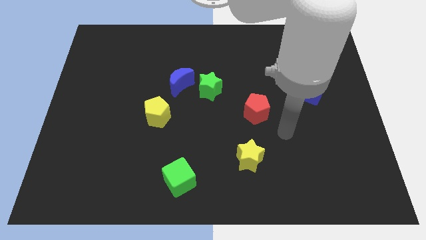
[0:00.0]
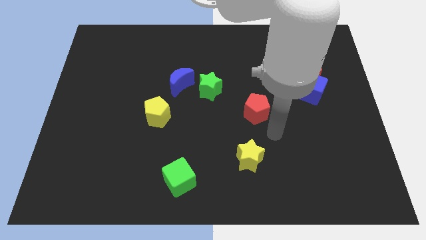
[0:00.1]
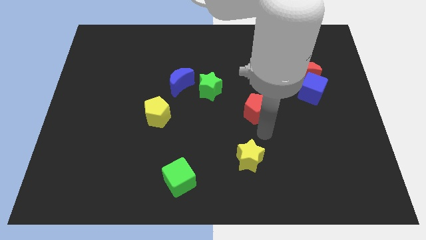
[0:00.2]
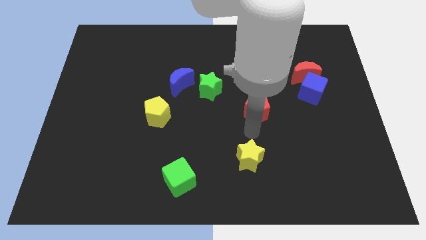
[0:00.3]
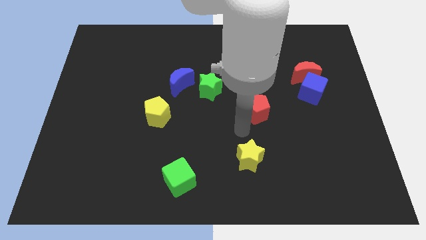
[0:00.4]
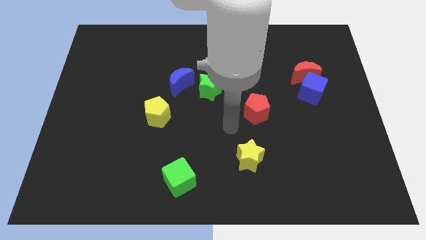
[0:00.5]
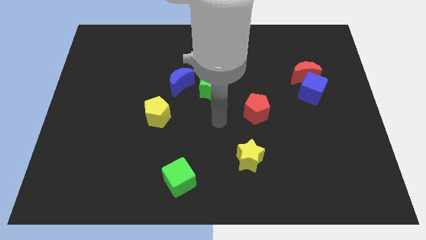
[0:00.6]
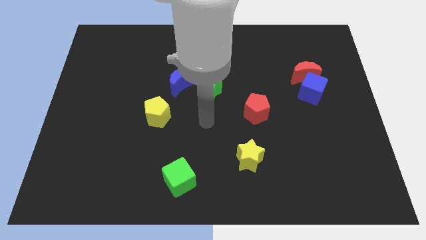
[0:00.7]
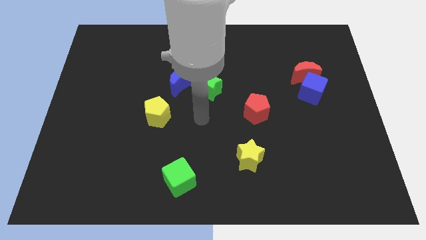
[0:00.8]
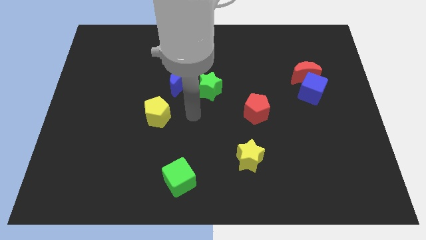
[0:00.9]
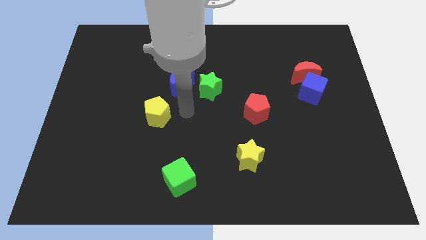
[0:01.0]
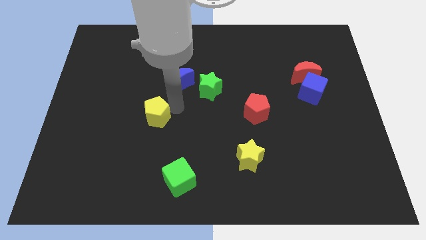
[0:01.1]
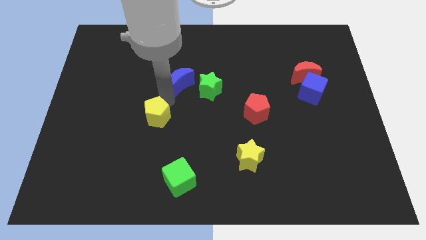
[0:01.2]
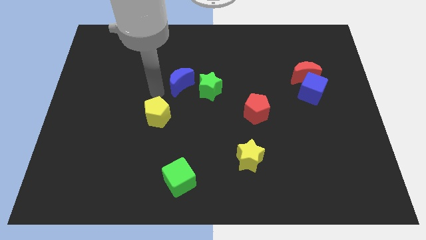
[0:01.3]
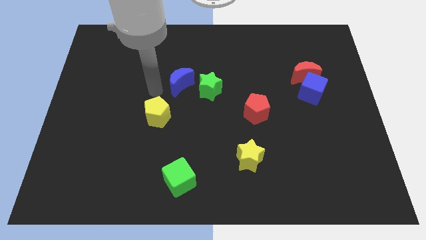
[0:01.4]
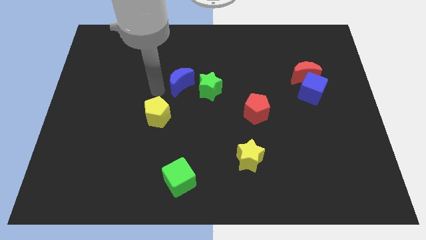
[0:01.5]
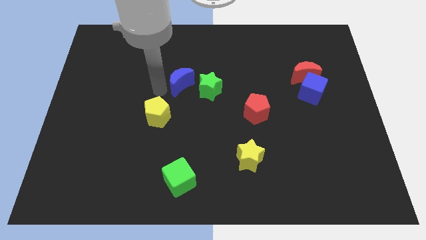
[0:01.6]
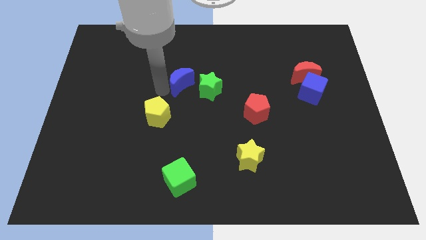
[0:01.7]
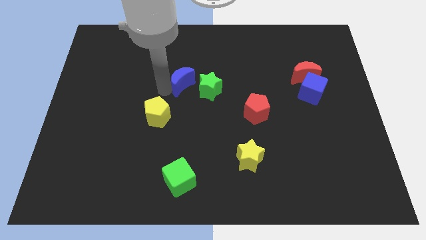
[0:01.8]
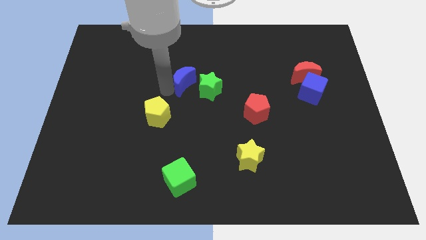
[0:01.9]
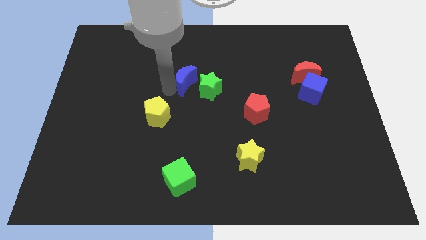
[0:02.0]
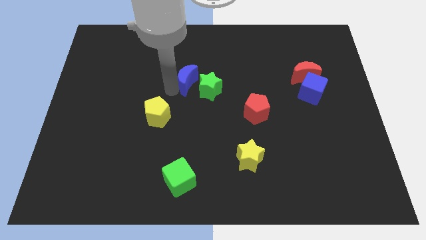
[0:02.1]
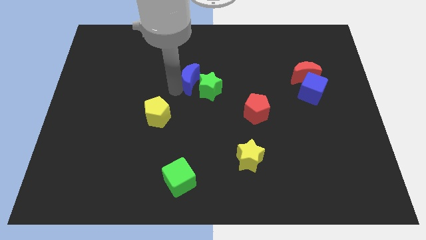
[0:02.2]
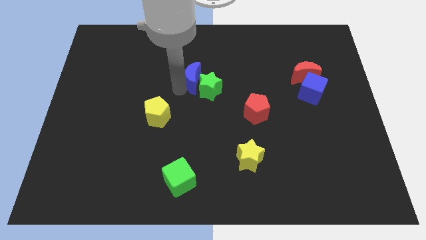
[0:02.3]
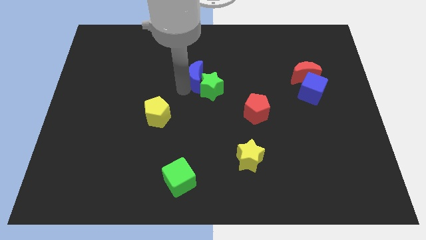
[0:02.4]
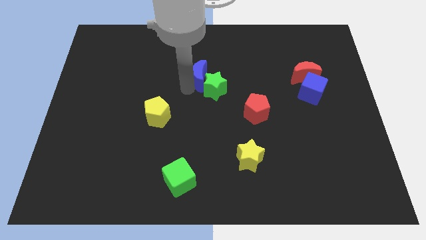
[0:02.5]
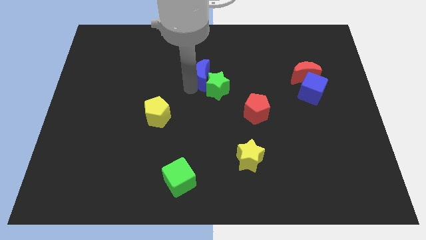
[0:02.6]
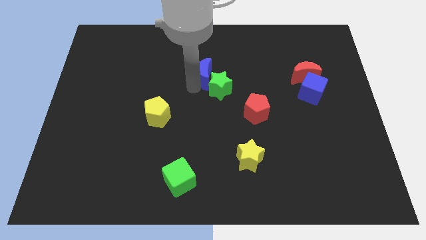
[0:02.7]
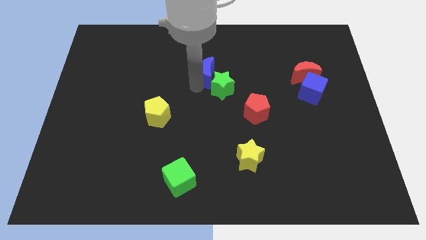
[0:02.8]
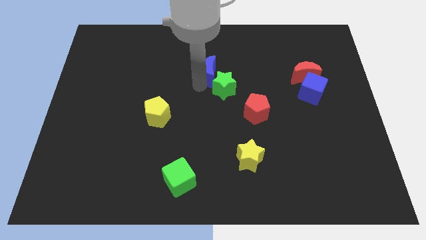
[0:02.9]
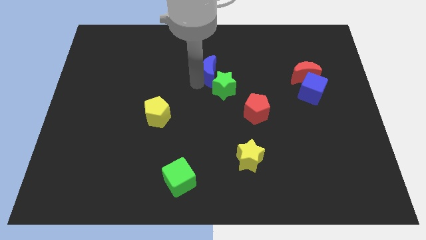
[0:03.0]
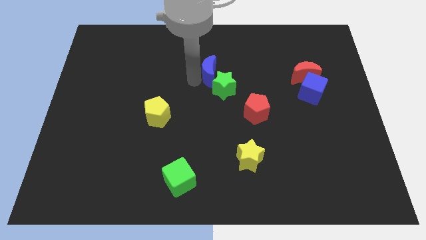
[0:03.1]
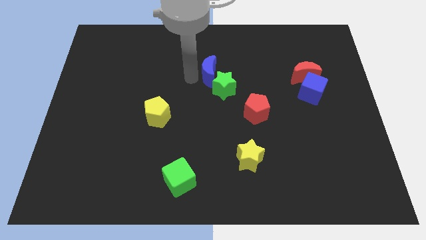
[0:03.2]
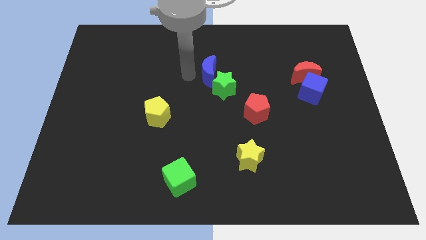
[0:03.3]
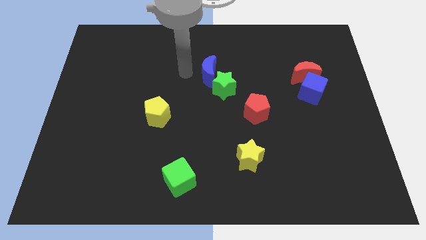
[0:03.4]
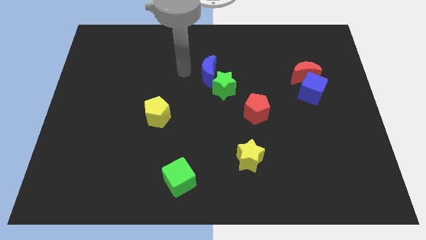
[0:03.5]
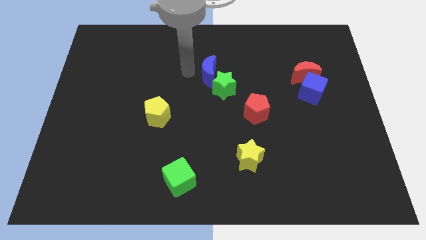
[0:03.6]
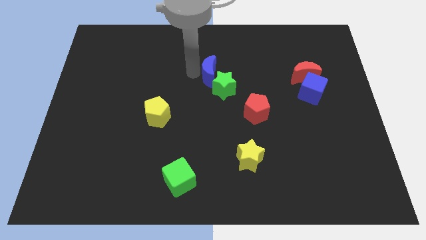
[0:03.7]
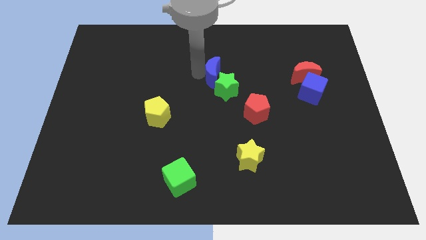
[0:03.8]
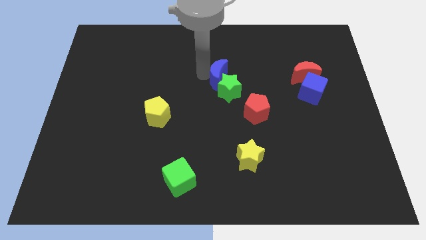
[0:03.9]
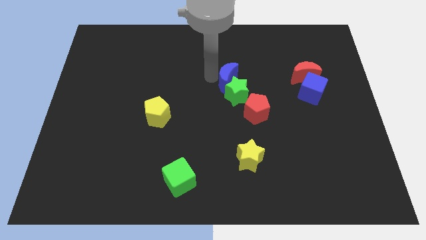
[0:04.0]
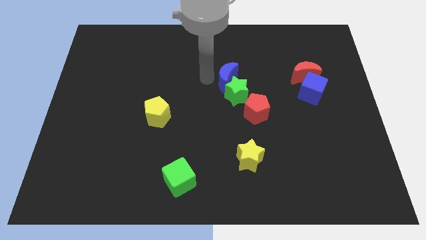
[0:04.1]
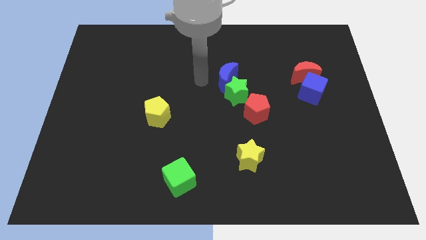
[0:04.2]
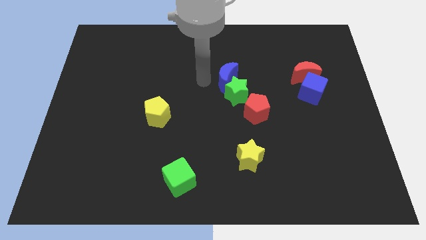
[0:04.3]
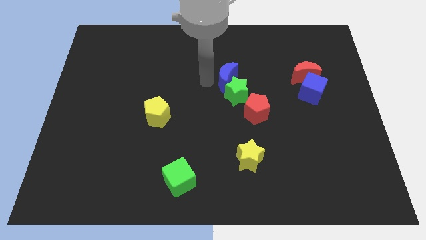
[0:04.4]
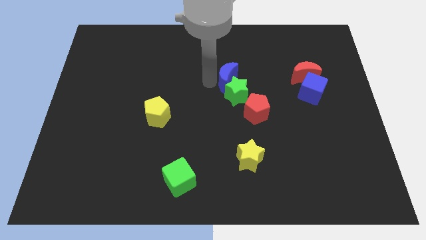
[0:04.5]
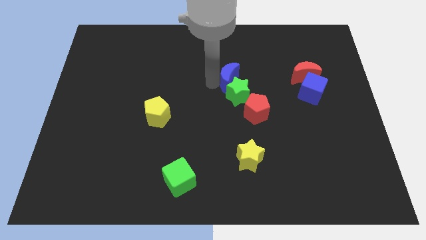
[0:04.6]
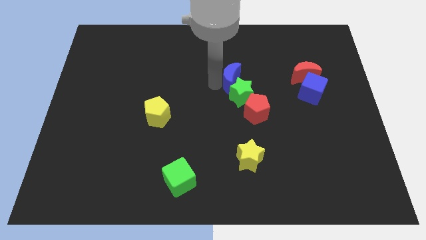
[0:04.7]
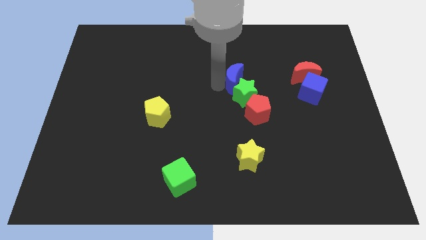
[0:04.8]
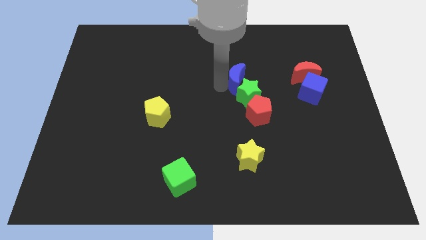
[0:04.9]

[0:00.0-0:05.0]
put the blue moon above the red pentagon

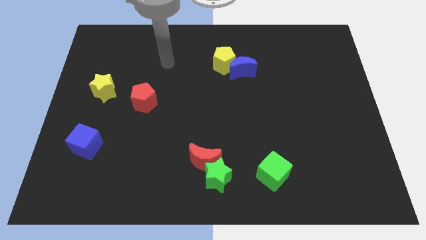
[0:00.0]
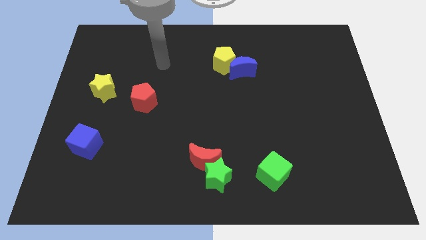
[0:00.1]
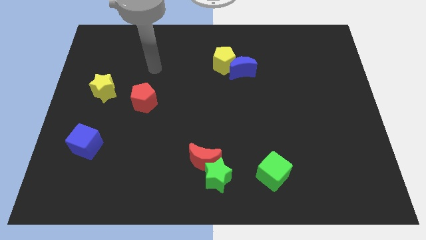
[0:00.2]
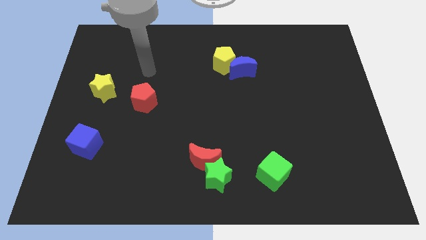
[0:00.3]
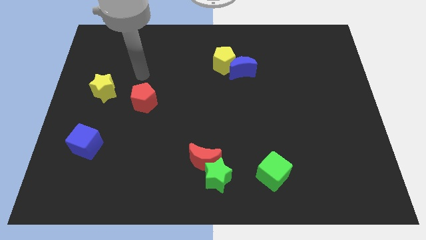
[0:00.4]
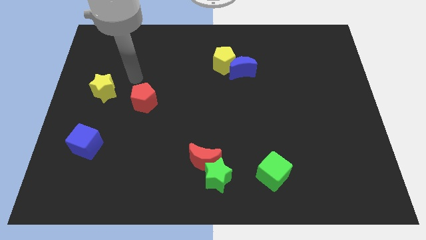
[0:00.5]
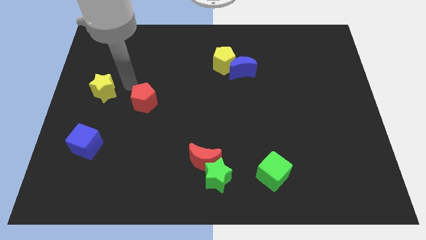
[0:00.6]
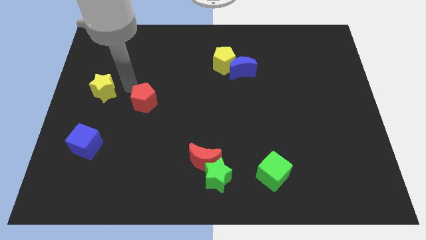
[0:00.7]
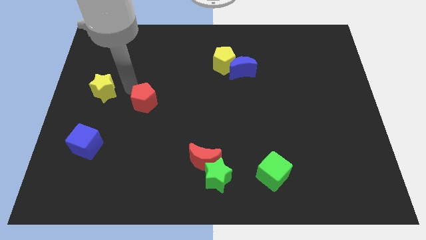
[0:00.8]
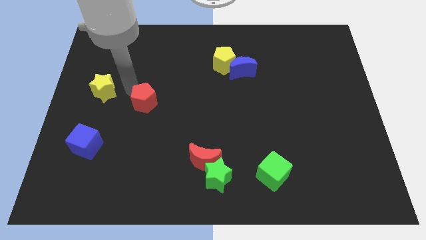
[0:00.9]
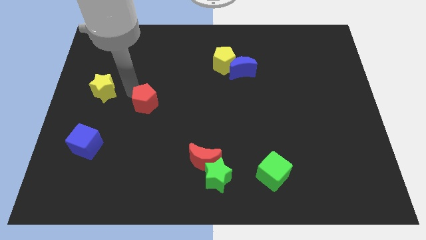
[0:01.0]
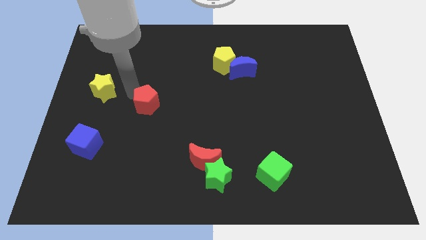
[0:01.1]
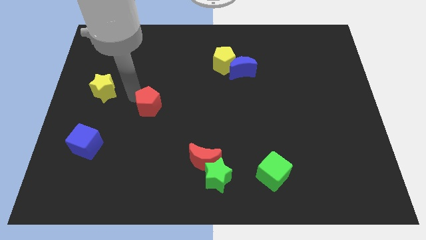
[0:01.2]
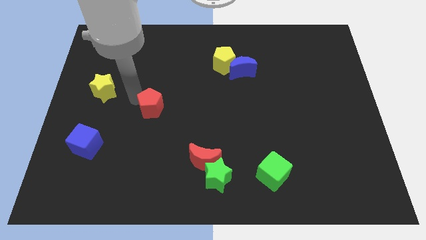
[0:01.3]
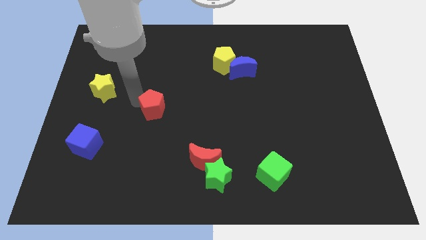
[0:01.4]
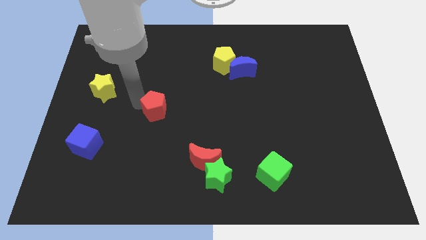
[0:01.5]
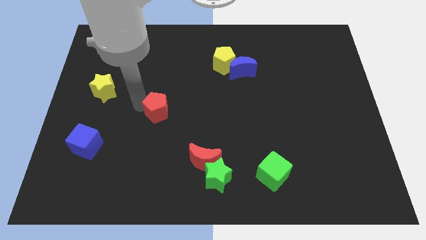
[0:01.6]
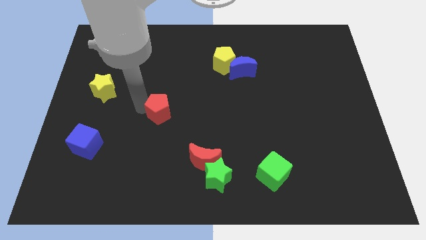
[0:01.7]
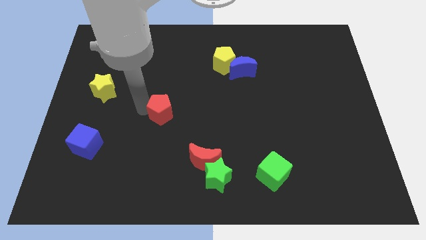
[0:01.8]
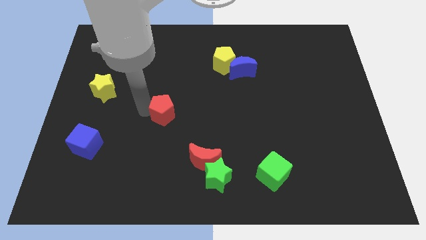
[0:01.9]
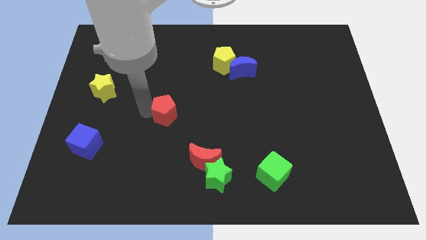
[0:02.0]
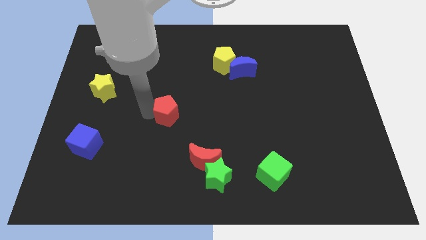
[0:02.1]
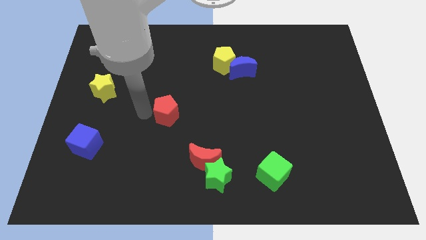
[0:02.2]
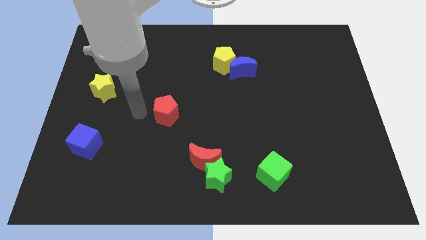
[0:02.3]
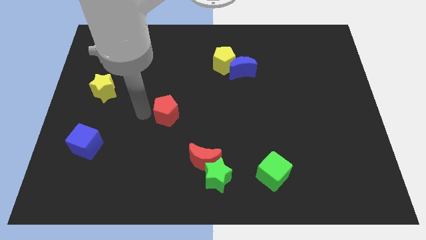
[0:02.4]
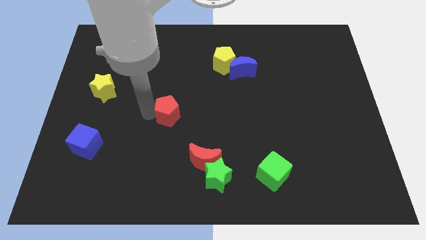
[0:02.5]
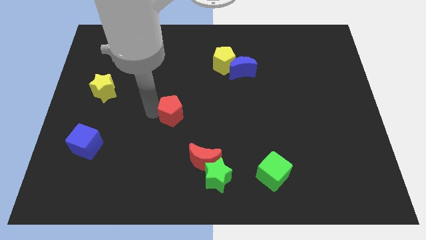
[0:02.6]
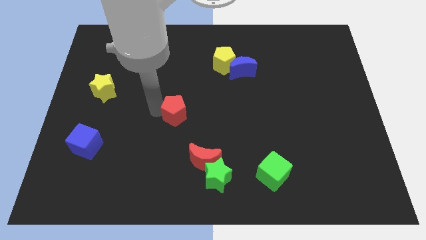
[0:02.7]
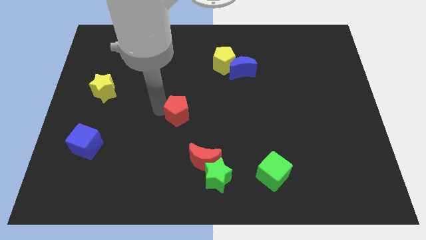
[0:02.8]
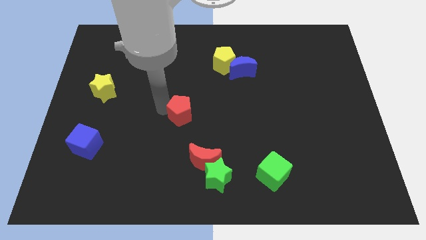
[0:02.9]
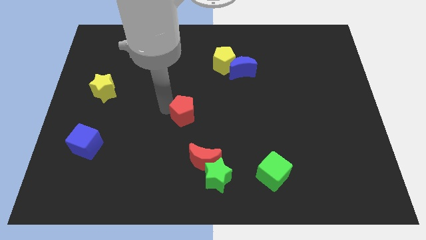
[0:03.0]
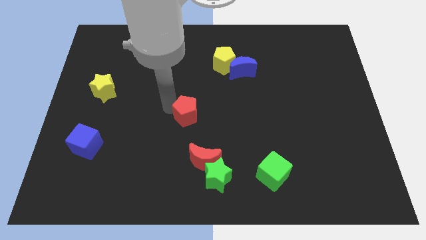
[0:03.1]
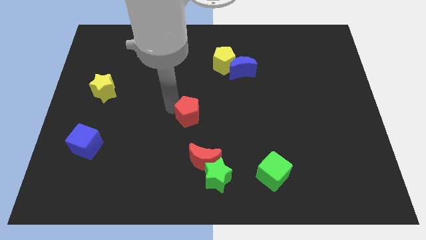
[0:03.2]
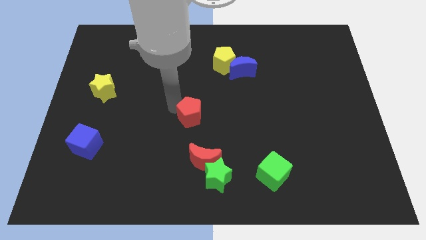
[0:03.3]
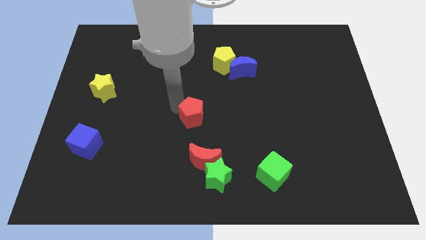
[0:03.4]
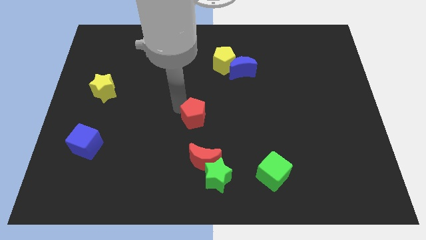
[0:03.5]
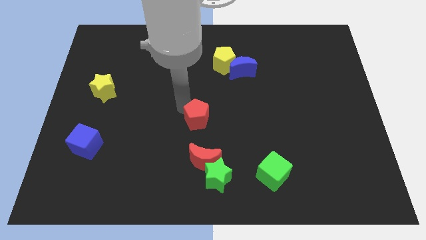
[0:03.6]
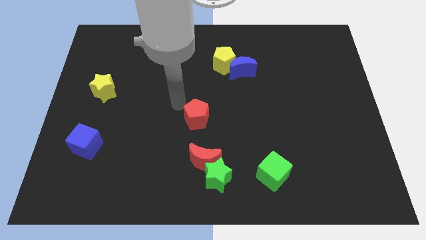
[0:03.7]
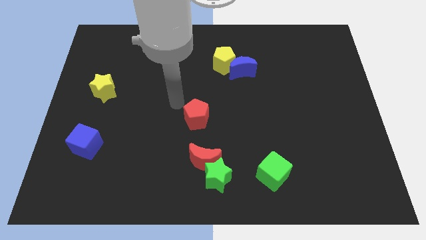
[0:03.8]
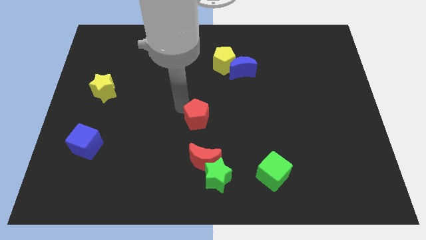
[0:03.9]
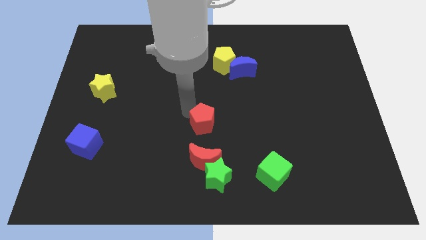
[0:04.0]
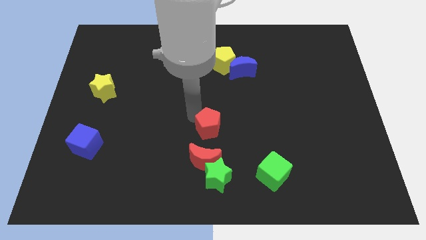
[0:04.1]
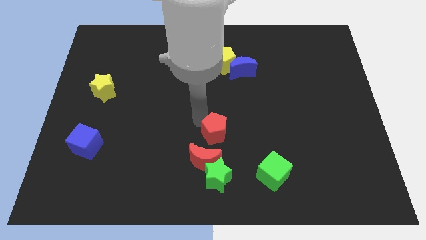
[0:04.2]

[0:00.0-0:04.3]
move the red pentagon diagonally up and to the right of the red moon
